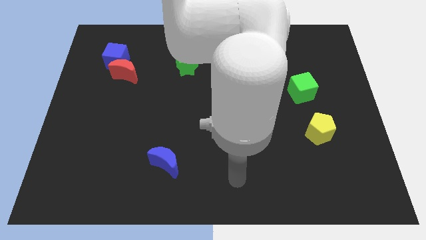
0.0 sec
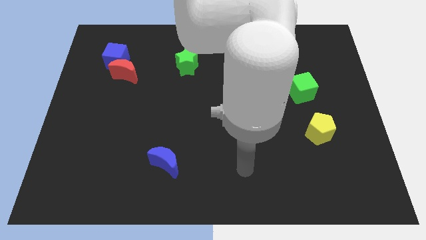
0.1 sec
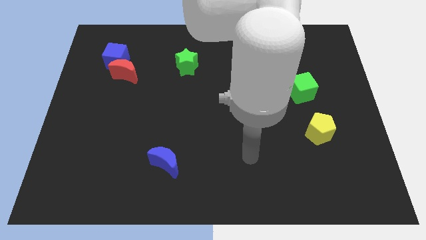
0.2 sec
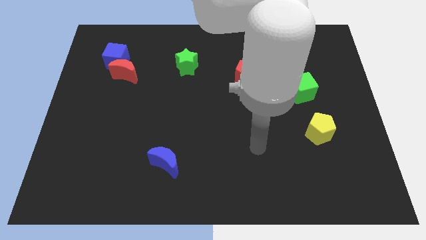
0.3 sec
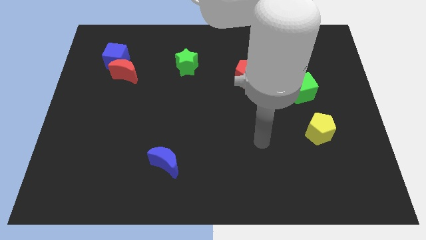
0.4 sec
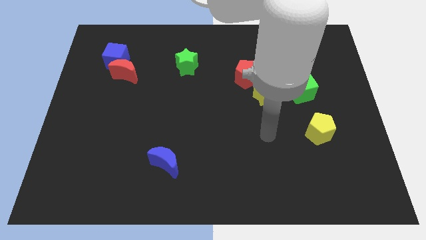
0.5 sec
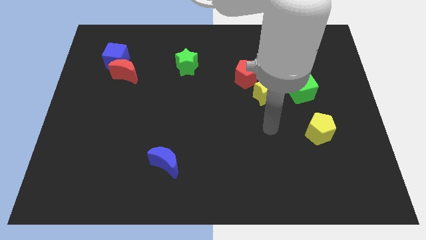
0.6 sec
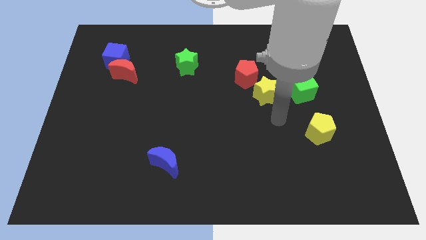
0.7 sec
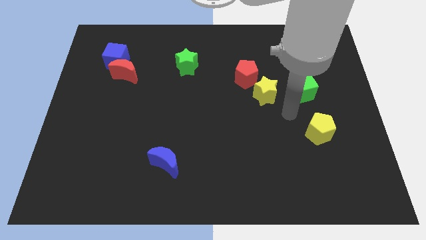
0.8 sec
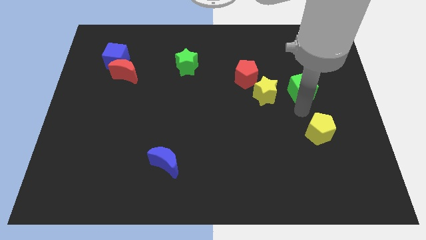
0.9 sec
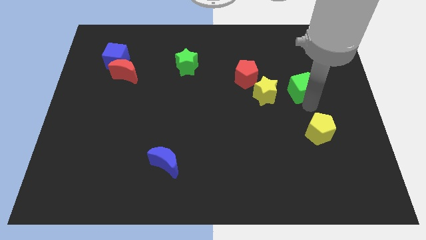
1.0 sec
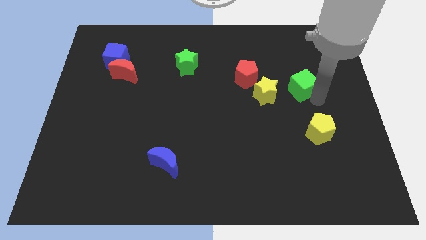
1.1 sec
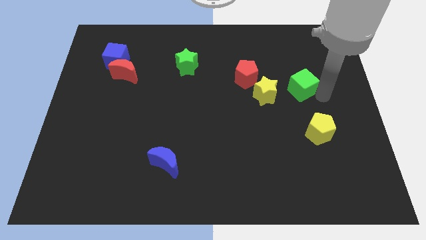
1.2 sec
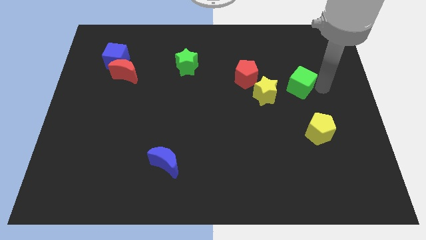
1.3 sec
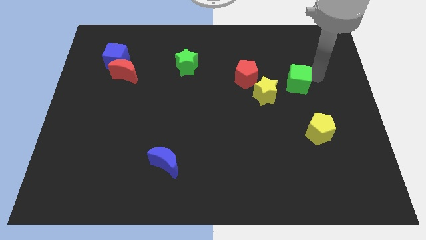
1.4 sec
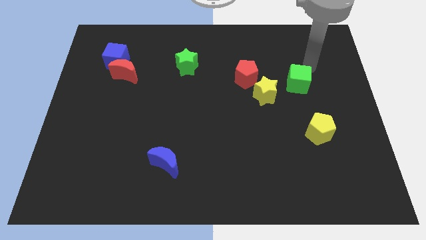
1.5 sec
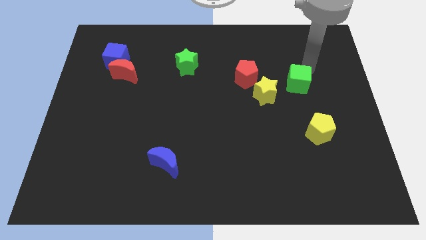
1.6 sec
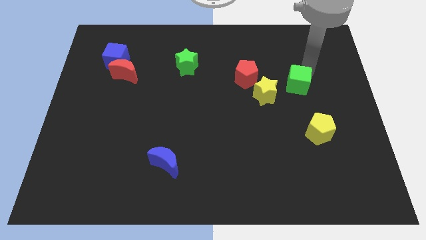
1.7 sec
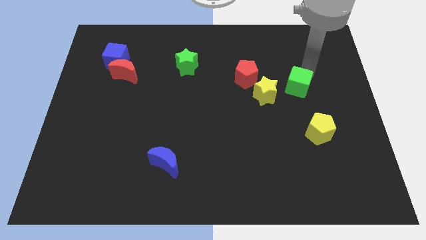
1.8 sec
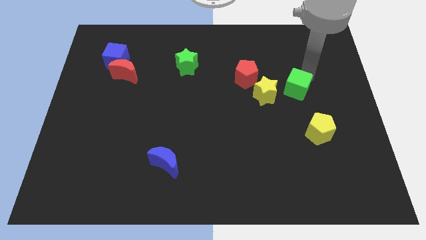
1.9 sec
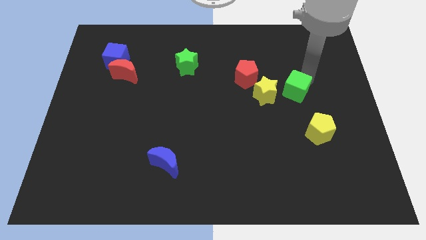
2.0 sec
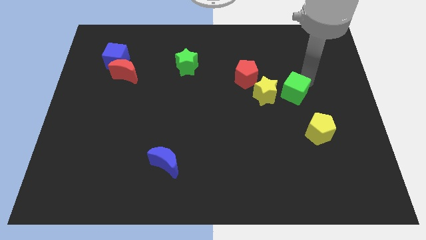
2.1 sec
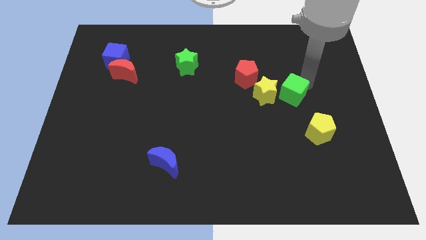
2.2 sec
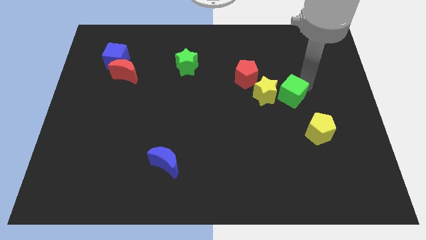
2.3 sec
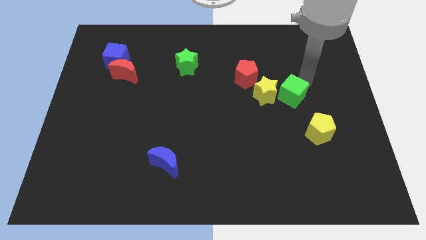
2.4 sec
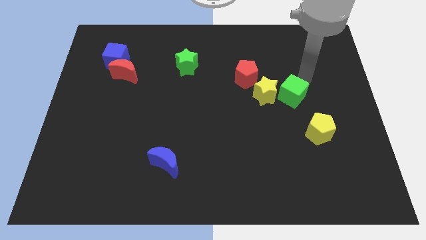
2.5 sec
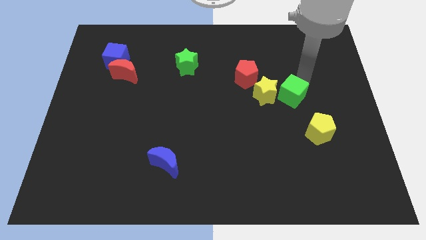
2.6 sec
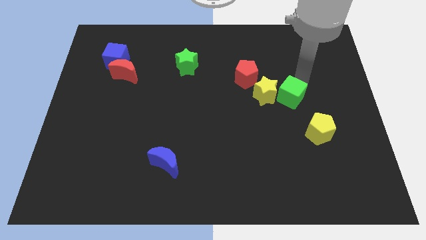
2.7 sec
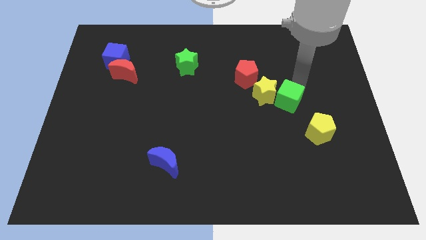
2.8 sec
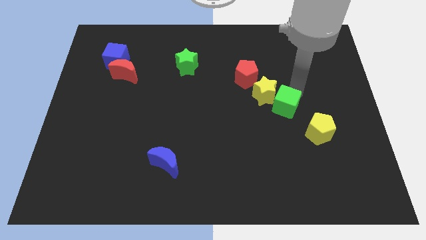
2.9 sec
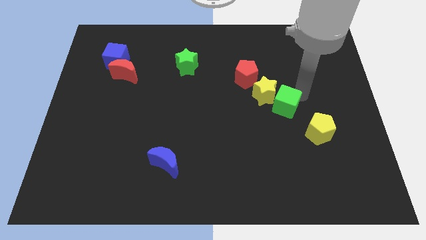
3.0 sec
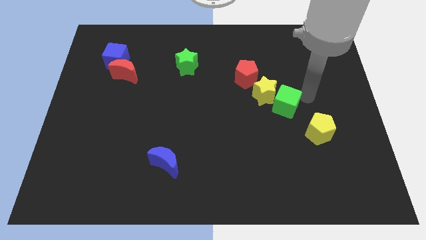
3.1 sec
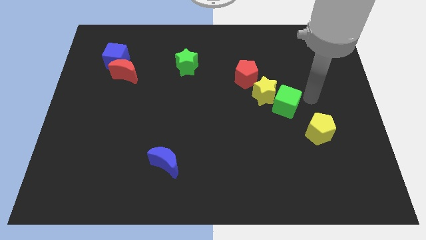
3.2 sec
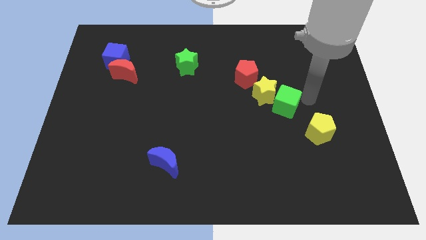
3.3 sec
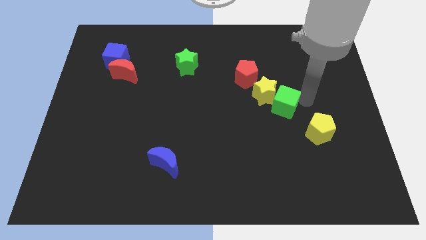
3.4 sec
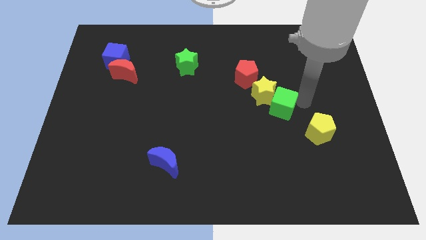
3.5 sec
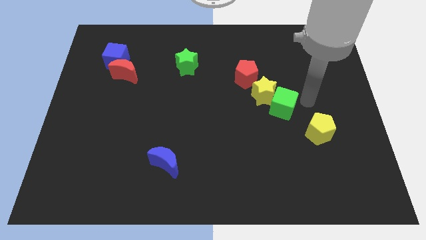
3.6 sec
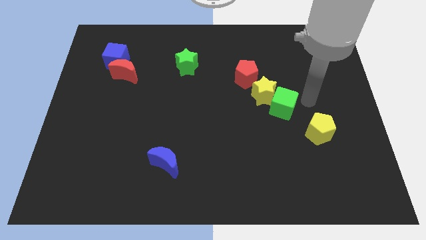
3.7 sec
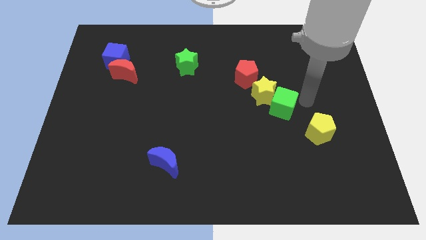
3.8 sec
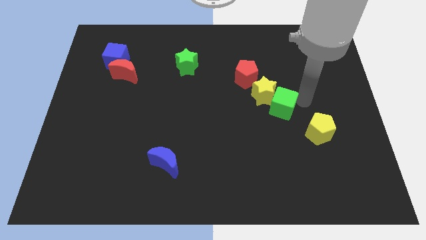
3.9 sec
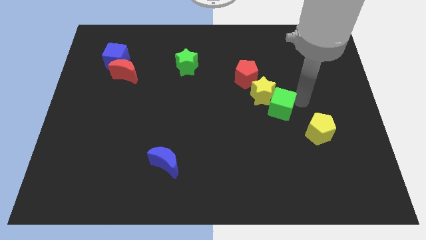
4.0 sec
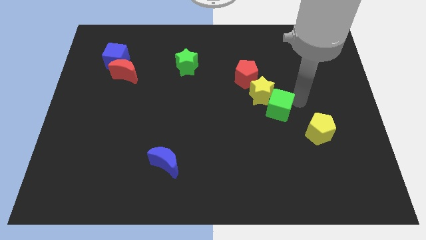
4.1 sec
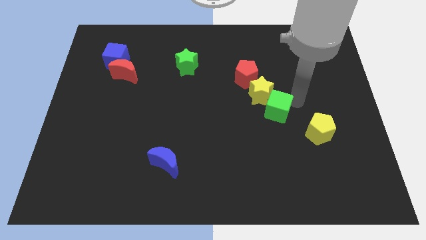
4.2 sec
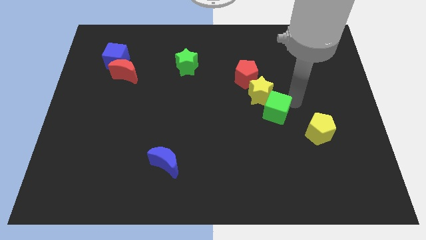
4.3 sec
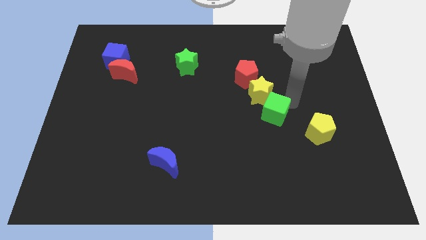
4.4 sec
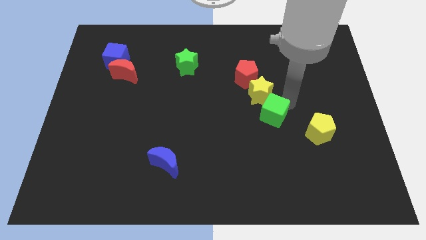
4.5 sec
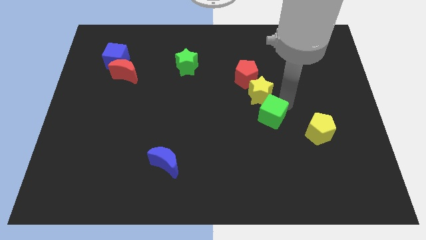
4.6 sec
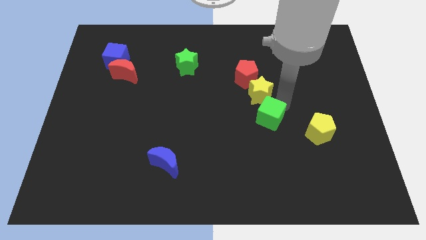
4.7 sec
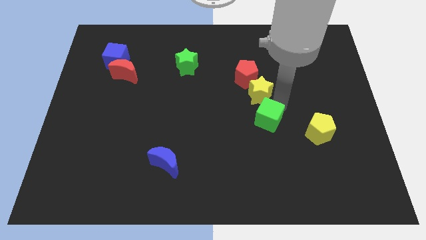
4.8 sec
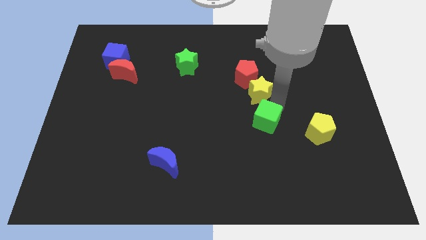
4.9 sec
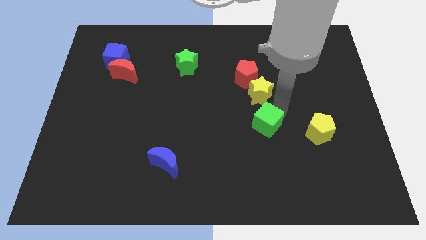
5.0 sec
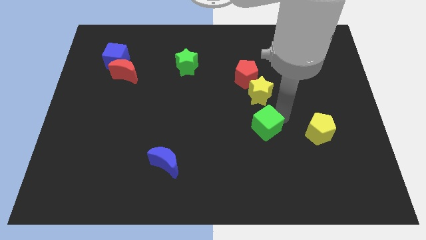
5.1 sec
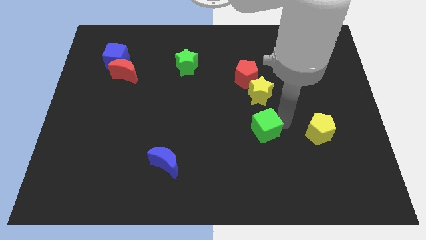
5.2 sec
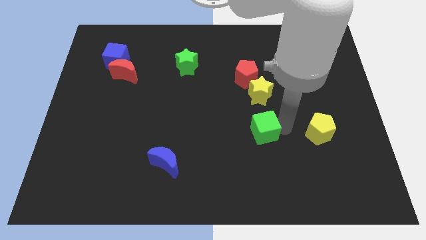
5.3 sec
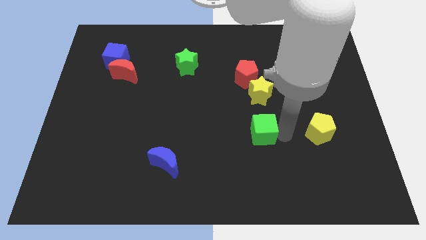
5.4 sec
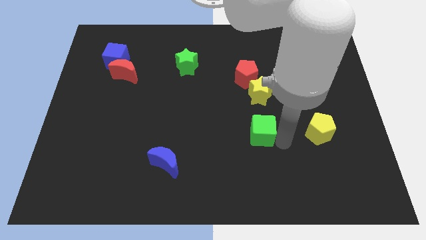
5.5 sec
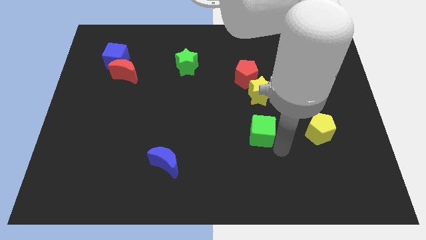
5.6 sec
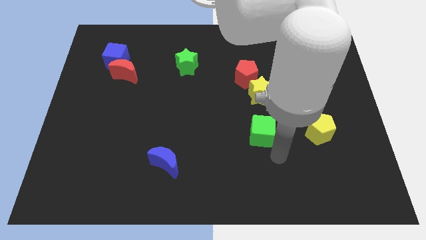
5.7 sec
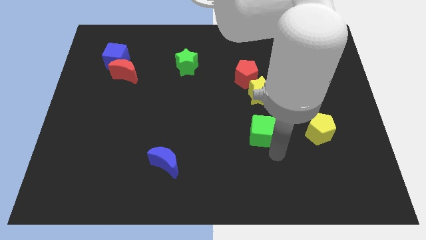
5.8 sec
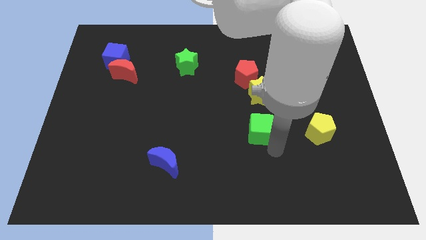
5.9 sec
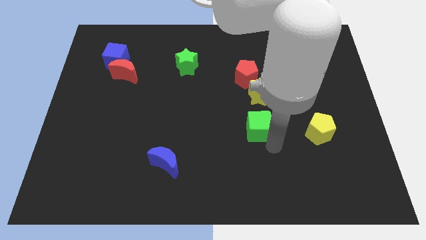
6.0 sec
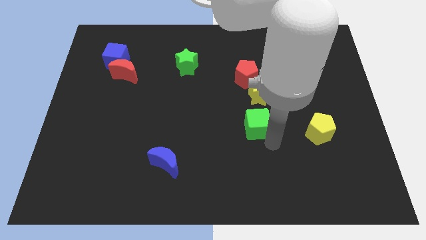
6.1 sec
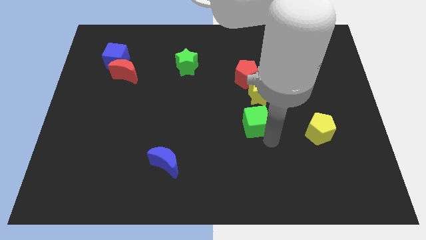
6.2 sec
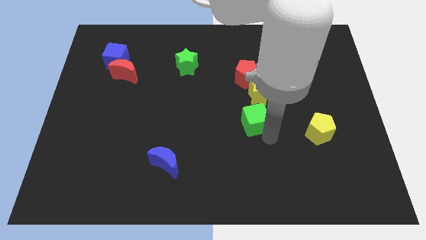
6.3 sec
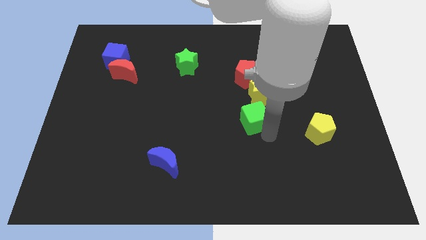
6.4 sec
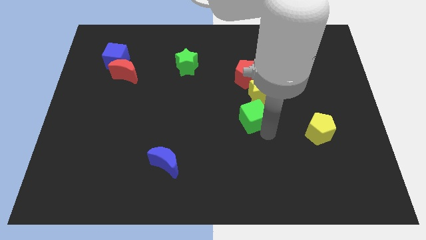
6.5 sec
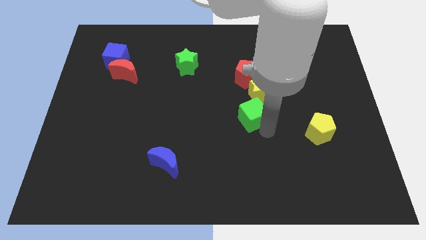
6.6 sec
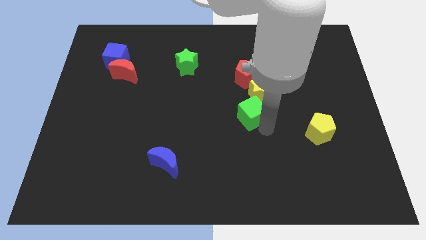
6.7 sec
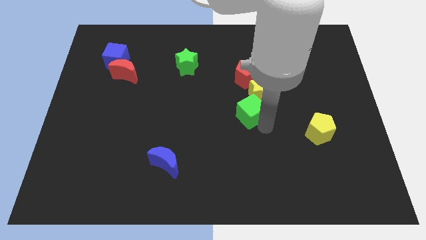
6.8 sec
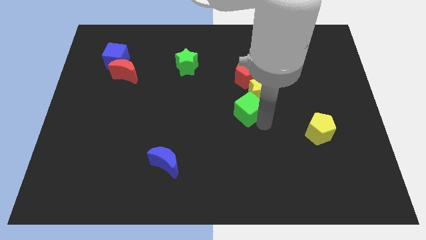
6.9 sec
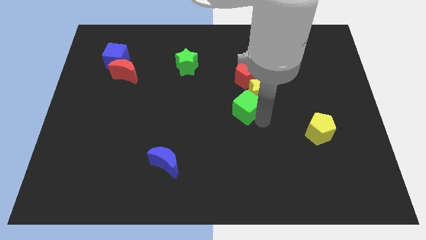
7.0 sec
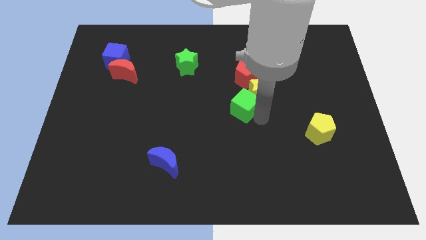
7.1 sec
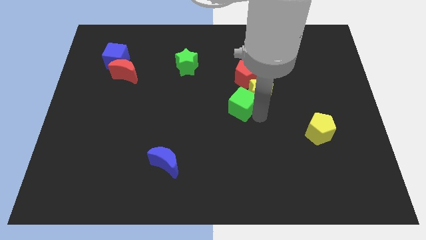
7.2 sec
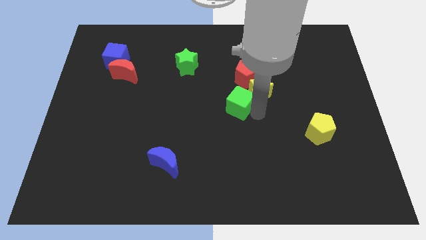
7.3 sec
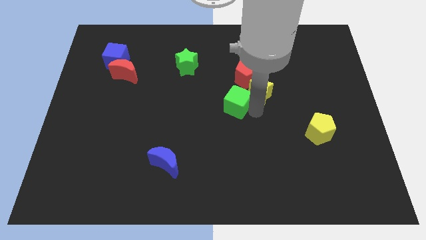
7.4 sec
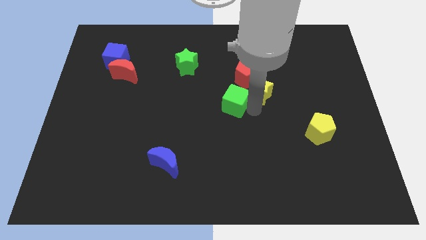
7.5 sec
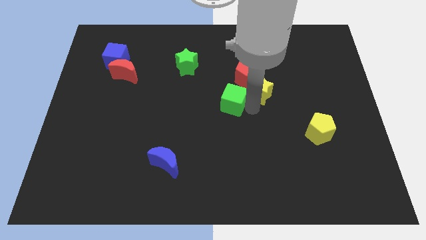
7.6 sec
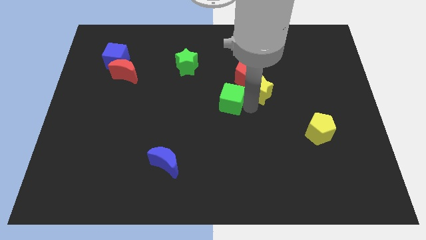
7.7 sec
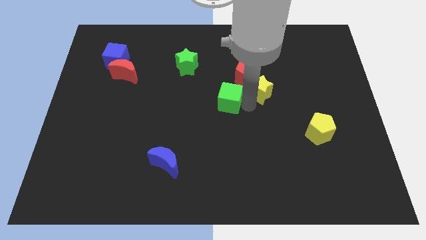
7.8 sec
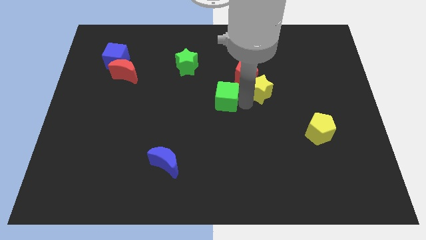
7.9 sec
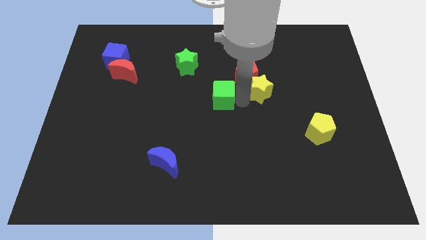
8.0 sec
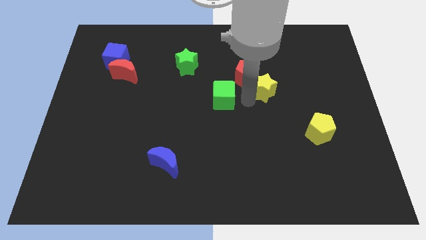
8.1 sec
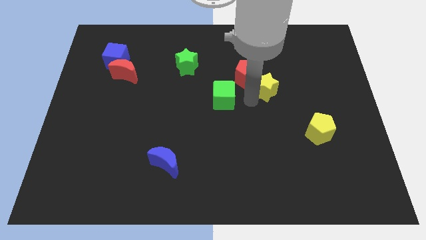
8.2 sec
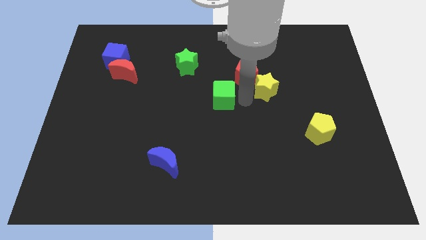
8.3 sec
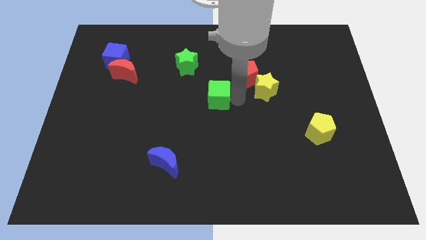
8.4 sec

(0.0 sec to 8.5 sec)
slide the green cube left
